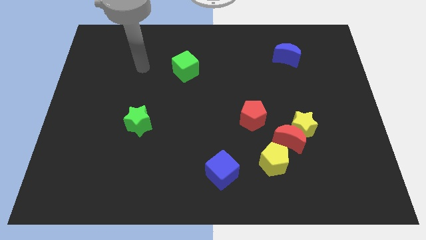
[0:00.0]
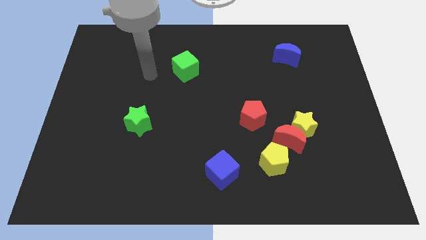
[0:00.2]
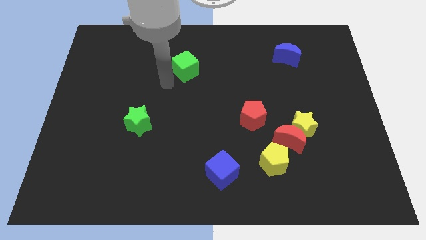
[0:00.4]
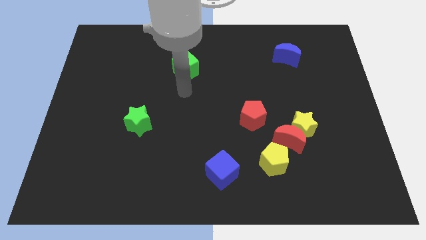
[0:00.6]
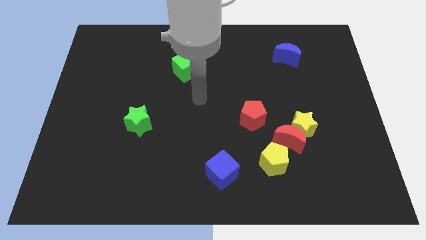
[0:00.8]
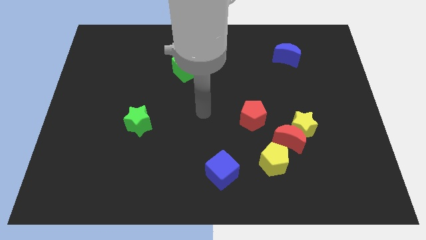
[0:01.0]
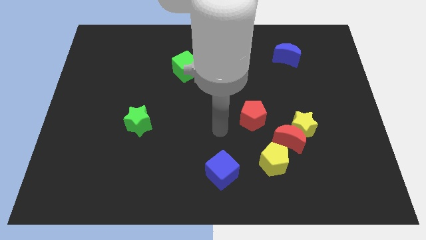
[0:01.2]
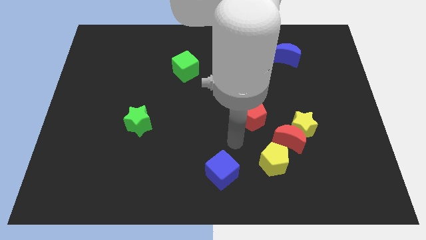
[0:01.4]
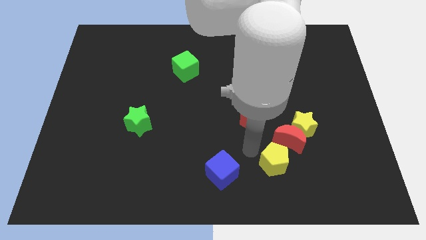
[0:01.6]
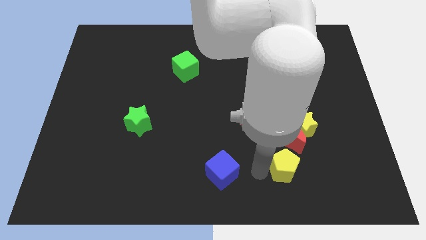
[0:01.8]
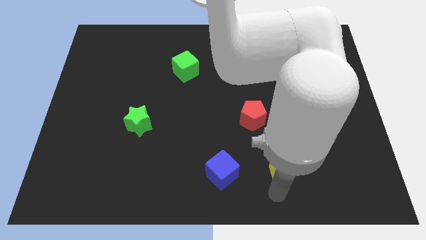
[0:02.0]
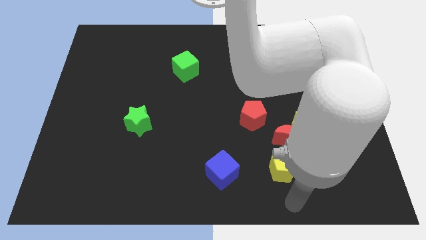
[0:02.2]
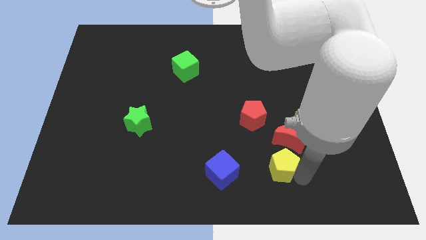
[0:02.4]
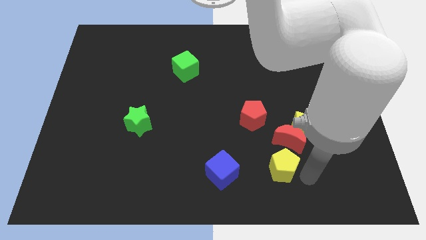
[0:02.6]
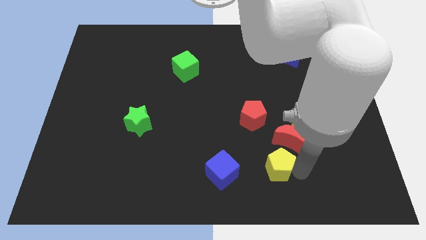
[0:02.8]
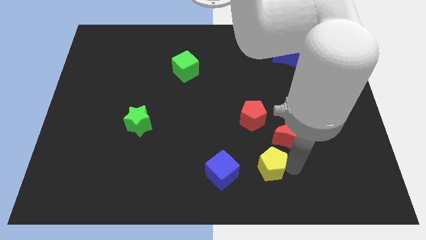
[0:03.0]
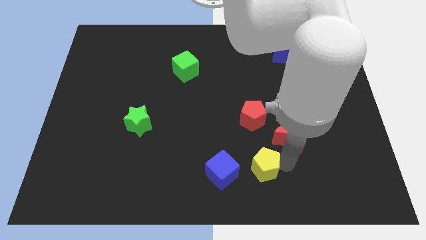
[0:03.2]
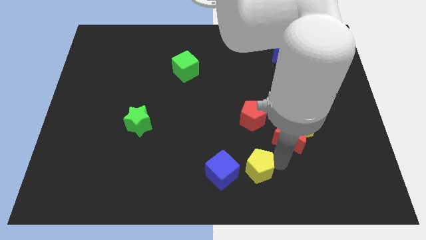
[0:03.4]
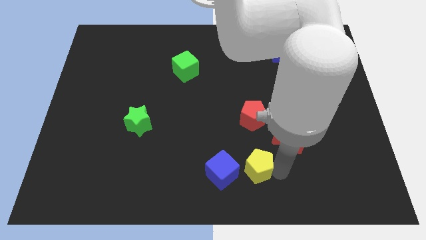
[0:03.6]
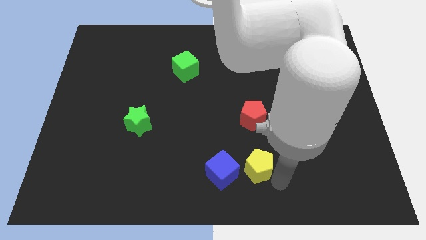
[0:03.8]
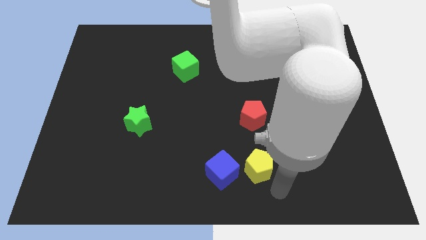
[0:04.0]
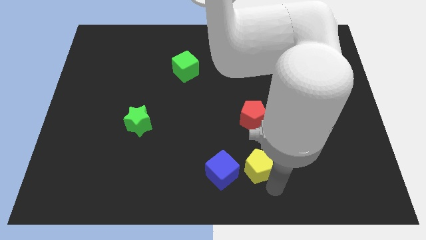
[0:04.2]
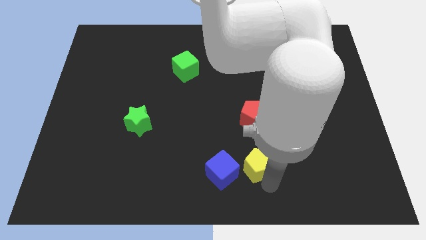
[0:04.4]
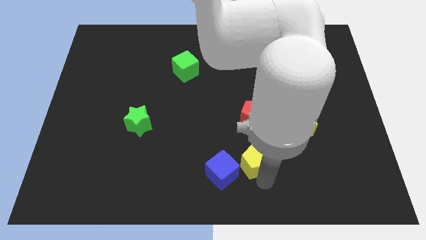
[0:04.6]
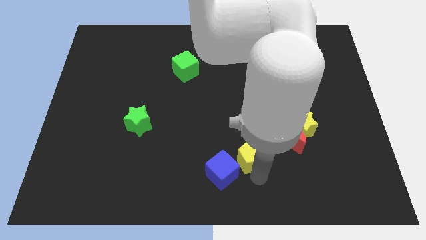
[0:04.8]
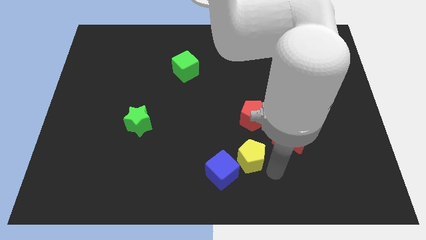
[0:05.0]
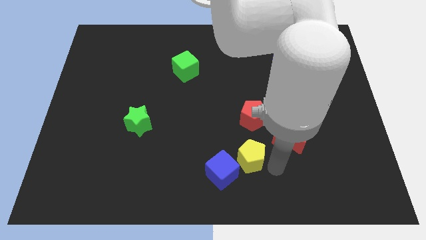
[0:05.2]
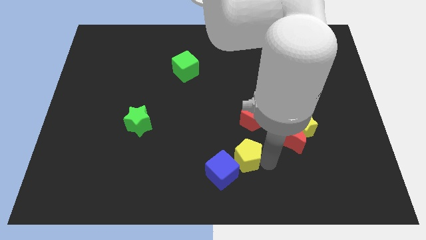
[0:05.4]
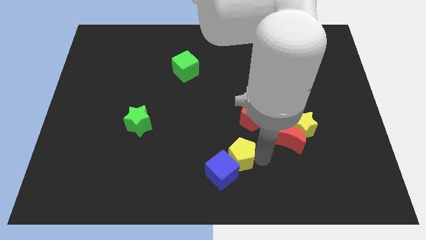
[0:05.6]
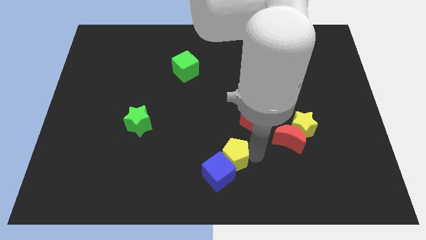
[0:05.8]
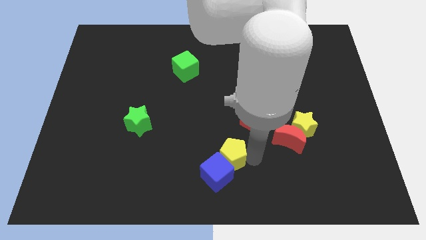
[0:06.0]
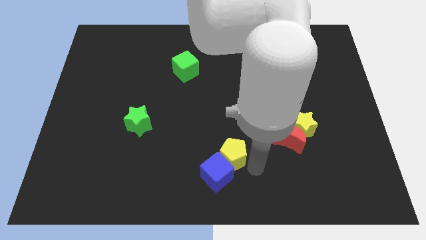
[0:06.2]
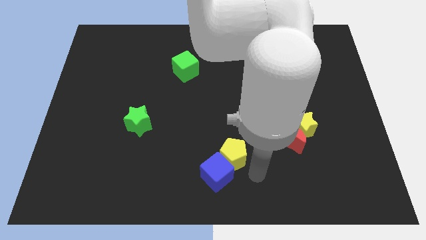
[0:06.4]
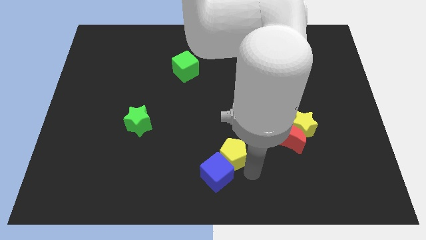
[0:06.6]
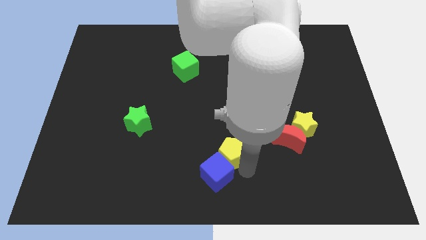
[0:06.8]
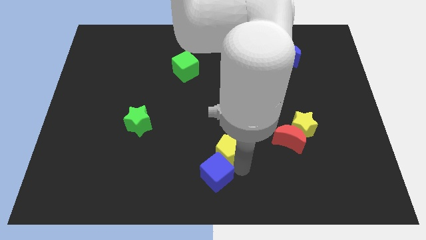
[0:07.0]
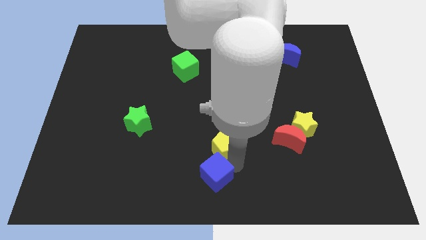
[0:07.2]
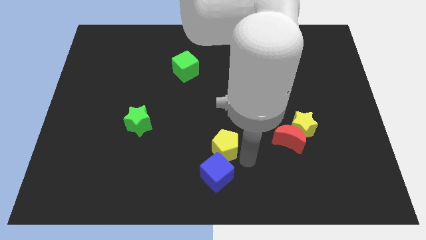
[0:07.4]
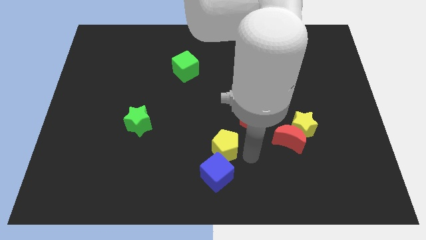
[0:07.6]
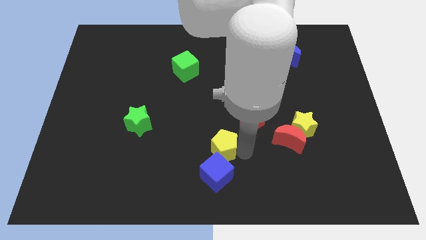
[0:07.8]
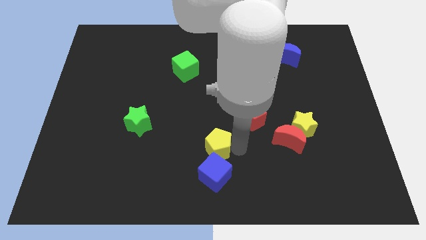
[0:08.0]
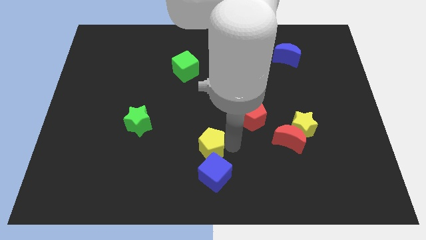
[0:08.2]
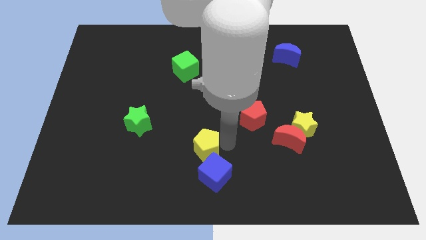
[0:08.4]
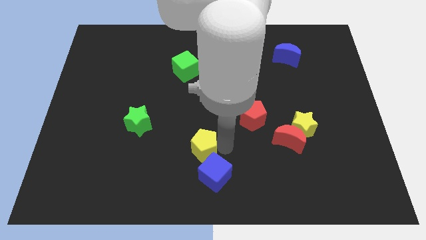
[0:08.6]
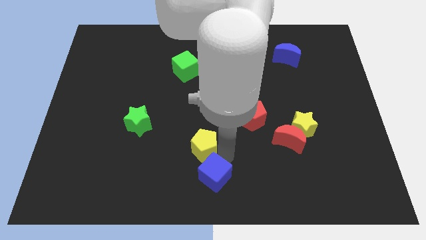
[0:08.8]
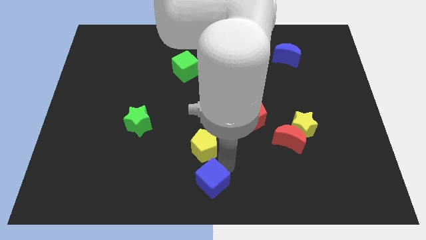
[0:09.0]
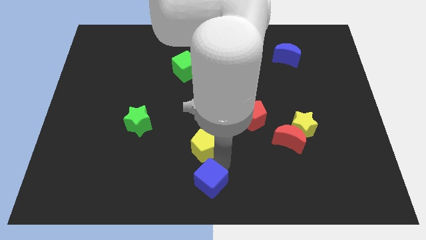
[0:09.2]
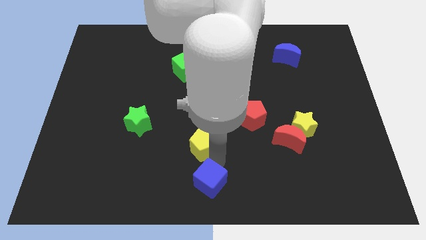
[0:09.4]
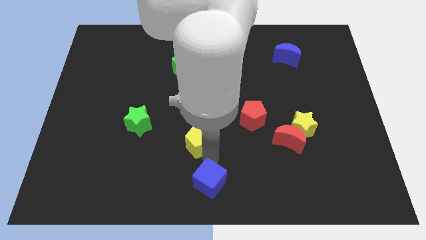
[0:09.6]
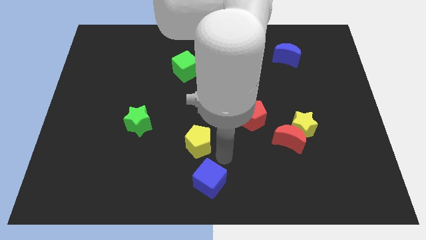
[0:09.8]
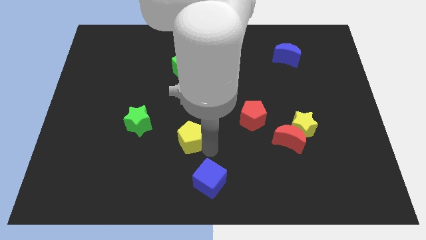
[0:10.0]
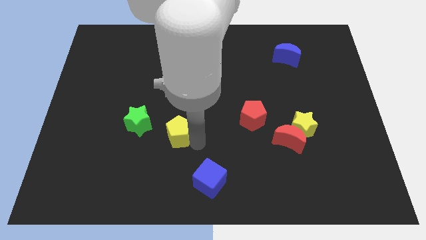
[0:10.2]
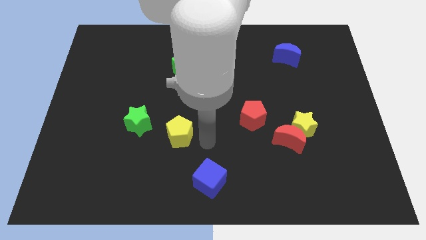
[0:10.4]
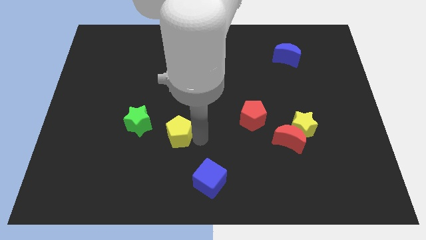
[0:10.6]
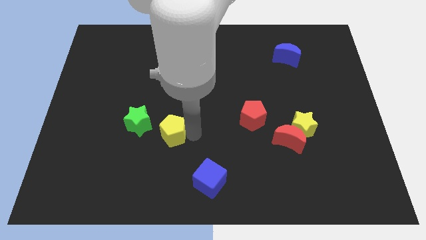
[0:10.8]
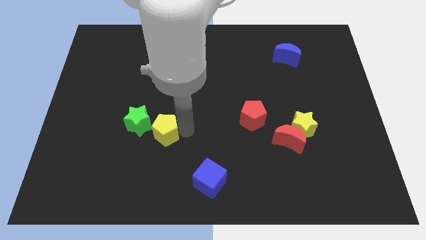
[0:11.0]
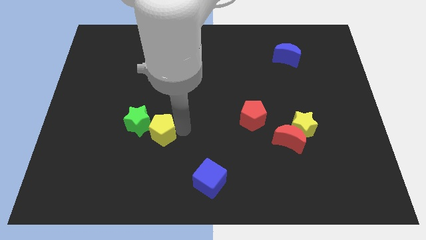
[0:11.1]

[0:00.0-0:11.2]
push the yellow pentagon to the green star
